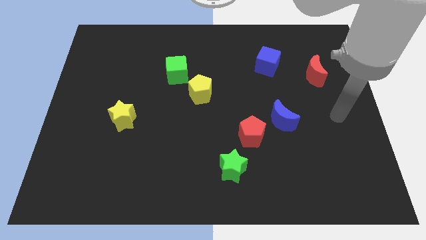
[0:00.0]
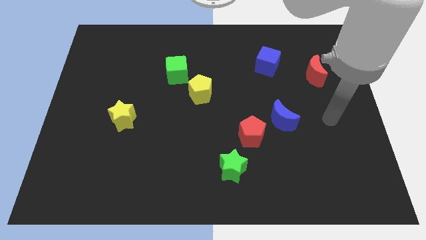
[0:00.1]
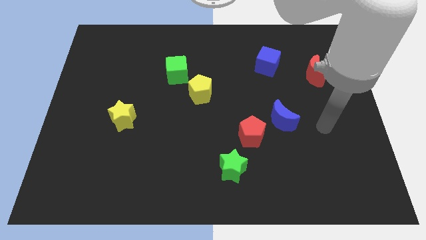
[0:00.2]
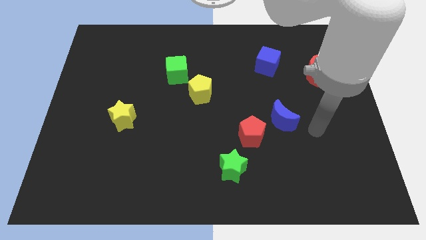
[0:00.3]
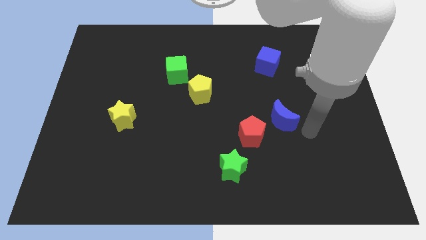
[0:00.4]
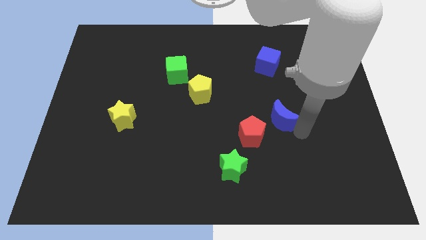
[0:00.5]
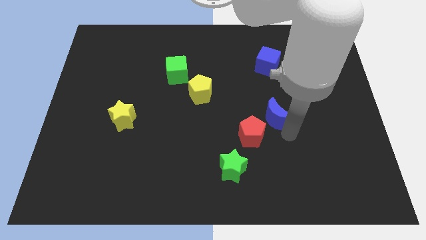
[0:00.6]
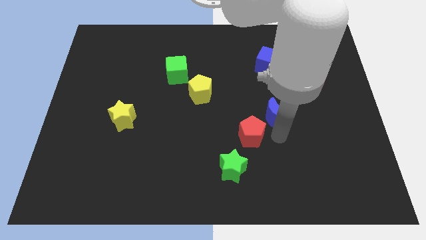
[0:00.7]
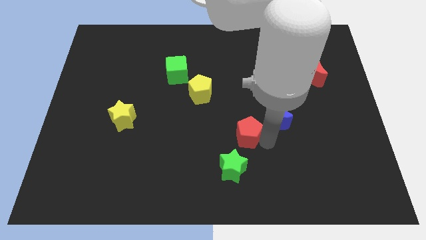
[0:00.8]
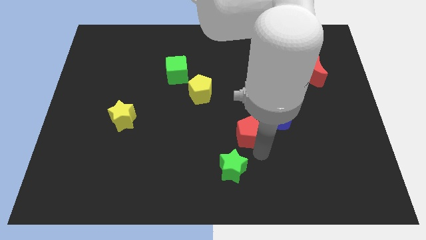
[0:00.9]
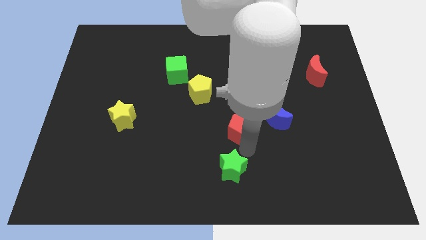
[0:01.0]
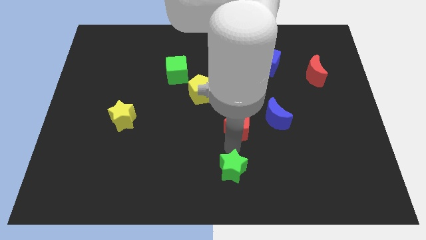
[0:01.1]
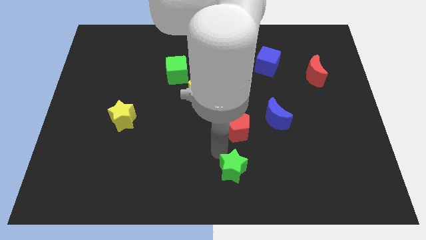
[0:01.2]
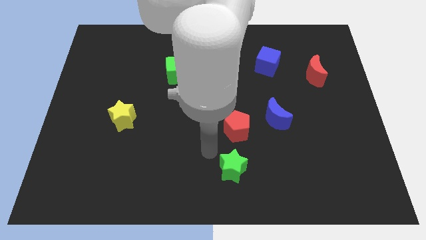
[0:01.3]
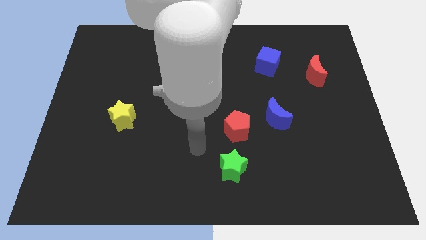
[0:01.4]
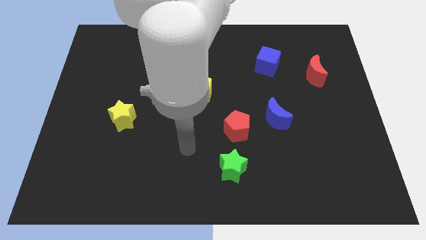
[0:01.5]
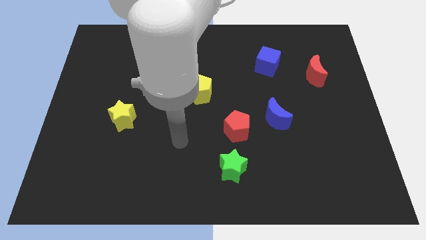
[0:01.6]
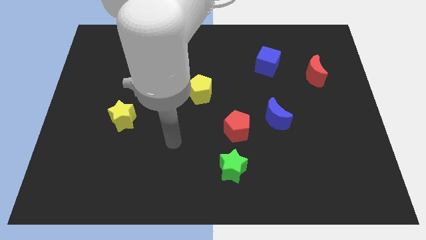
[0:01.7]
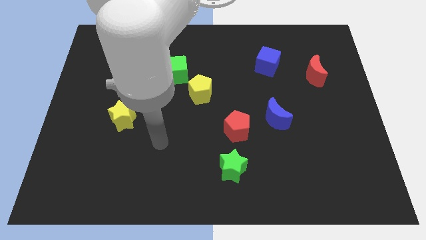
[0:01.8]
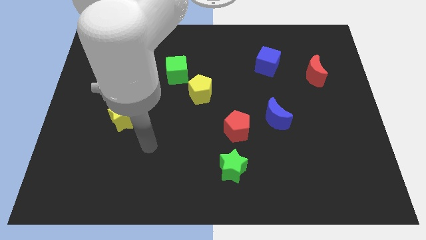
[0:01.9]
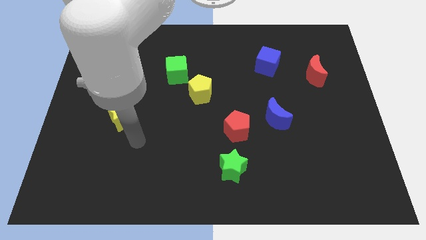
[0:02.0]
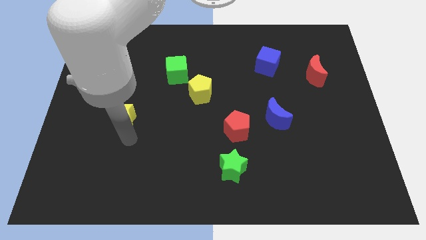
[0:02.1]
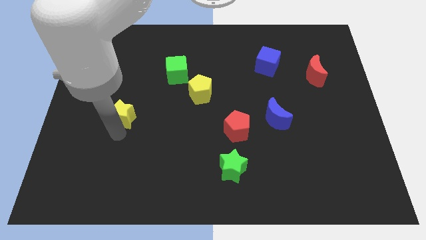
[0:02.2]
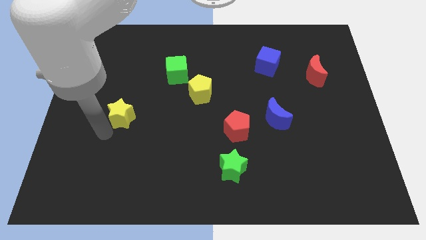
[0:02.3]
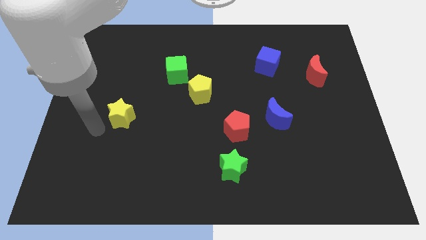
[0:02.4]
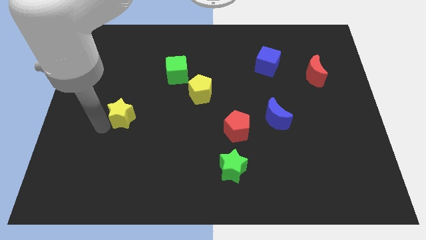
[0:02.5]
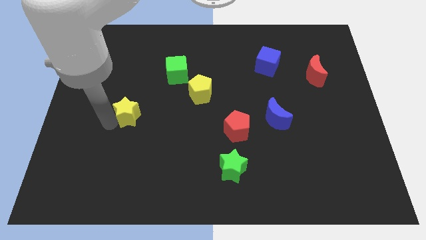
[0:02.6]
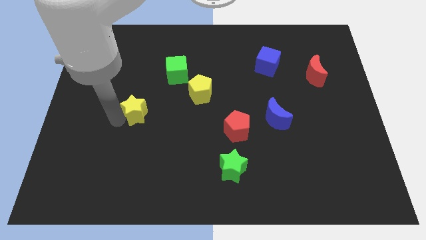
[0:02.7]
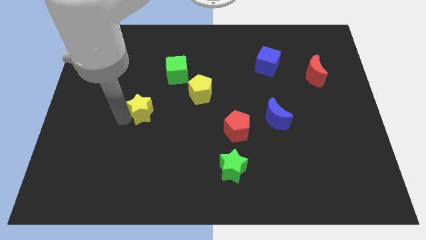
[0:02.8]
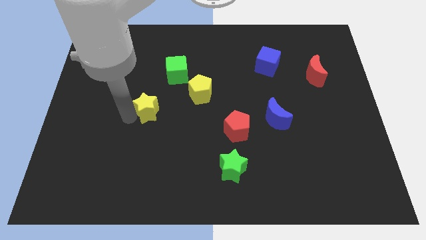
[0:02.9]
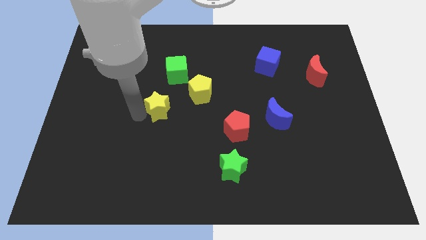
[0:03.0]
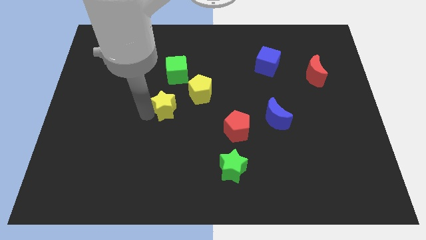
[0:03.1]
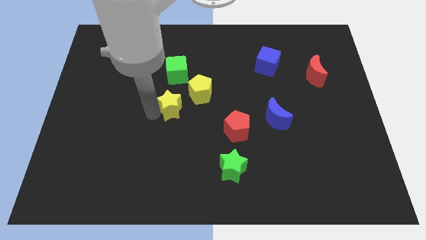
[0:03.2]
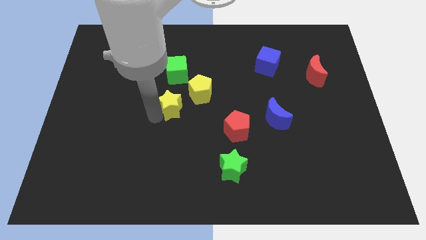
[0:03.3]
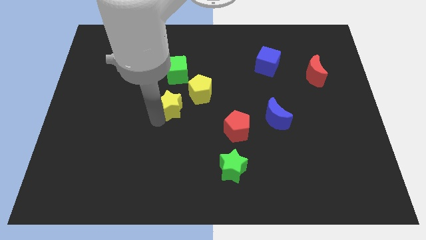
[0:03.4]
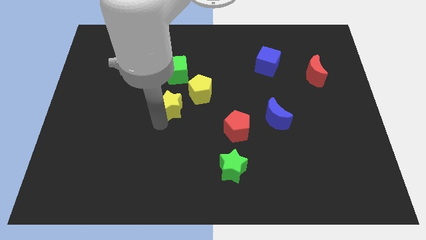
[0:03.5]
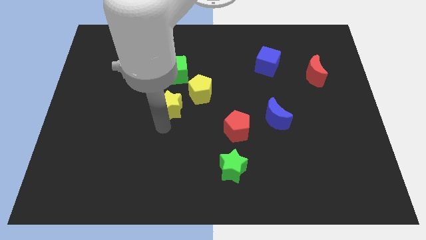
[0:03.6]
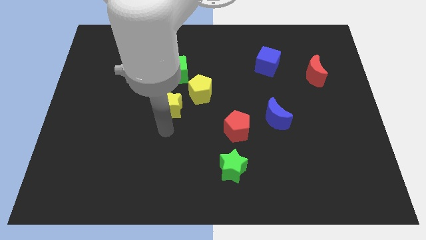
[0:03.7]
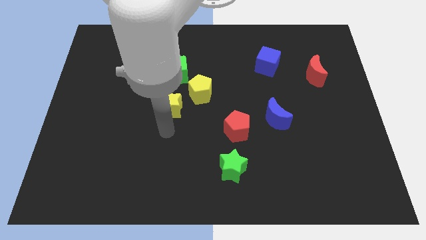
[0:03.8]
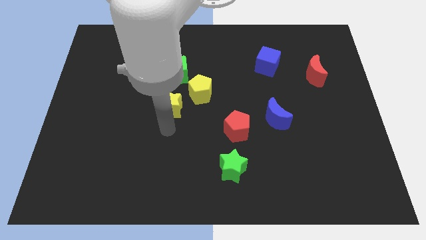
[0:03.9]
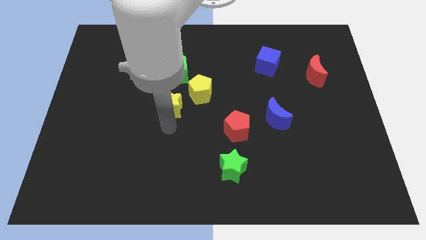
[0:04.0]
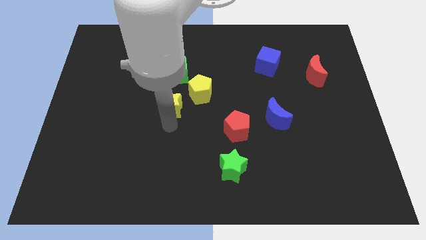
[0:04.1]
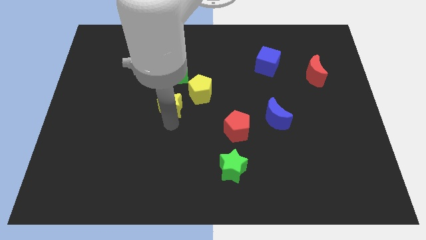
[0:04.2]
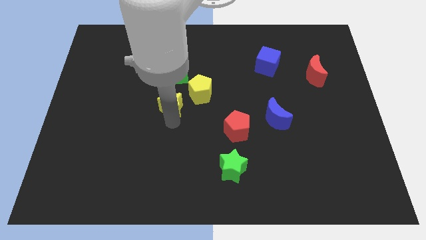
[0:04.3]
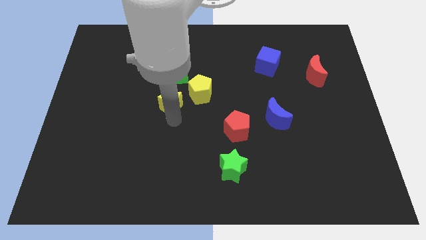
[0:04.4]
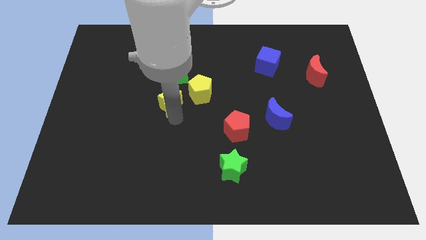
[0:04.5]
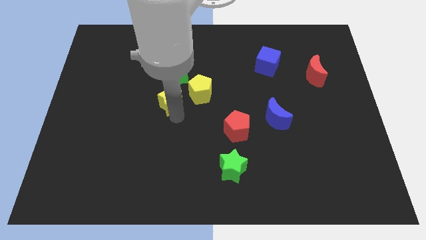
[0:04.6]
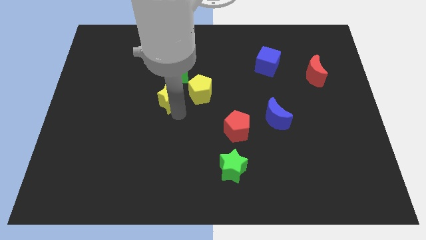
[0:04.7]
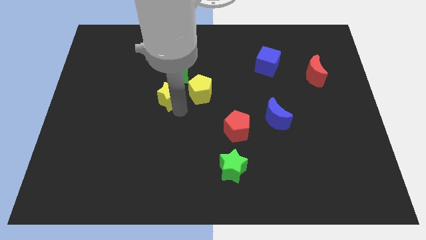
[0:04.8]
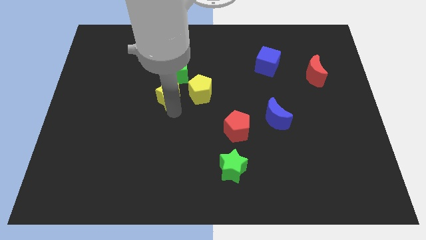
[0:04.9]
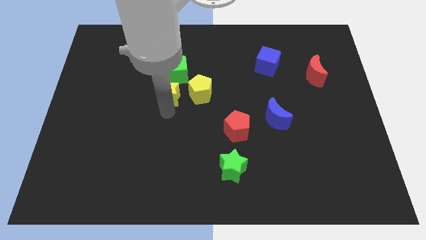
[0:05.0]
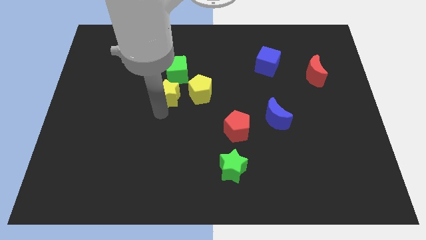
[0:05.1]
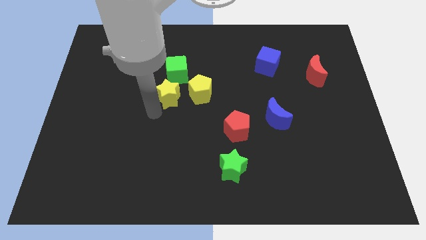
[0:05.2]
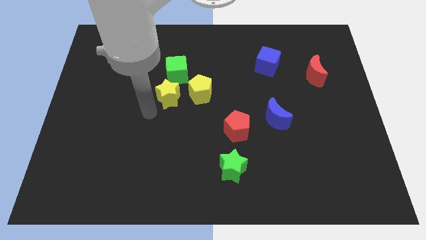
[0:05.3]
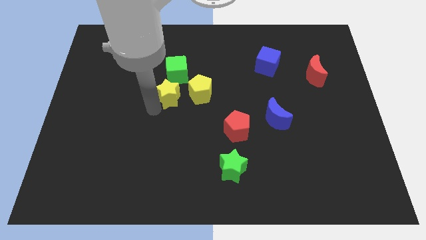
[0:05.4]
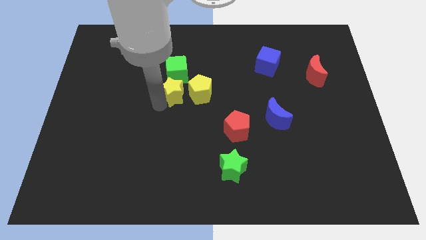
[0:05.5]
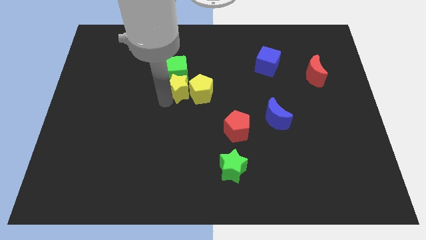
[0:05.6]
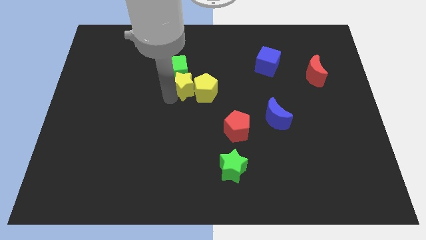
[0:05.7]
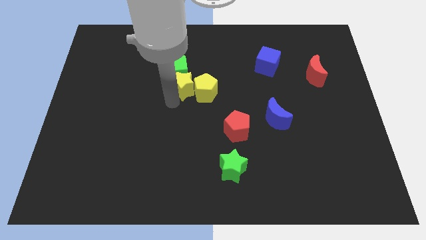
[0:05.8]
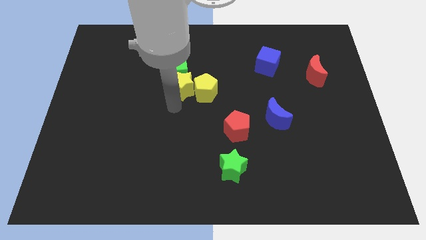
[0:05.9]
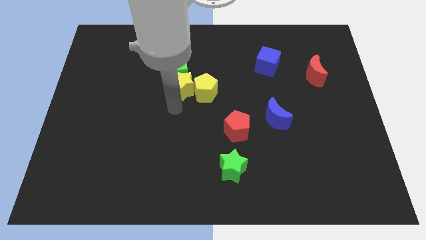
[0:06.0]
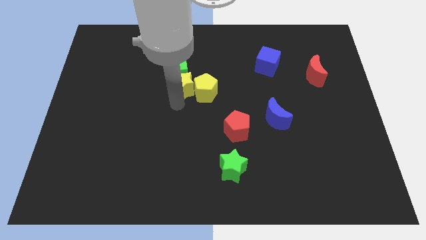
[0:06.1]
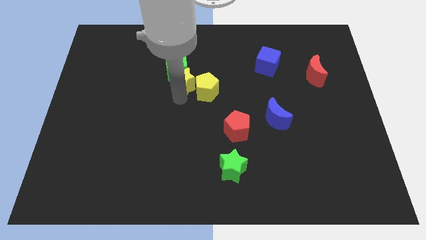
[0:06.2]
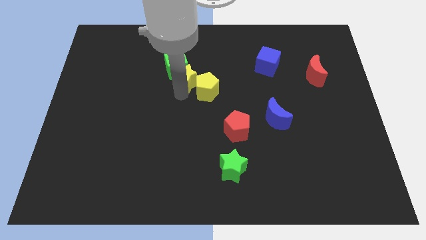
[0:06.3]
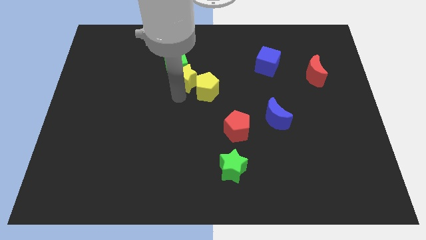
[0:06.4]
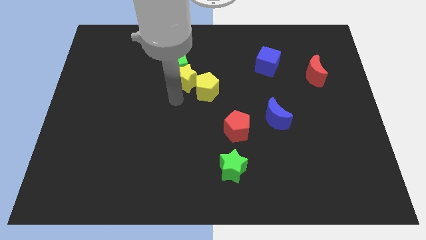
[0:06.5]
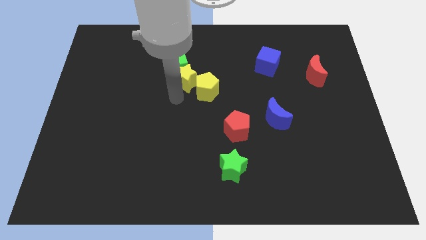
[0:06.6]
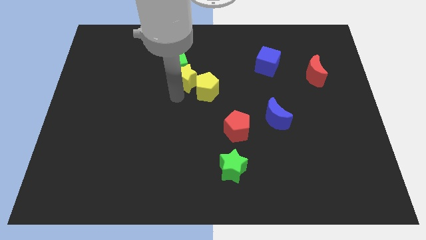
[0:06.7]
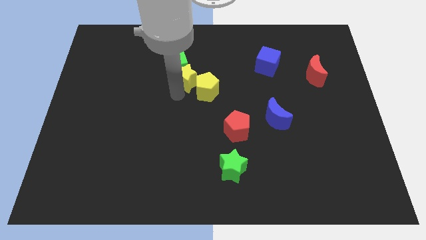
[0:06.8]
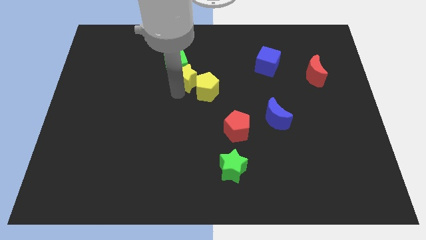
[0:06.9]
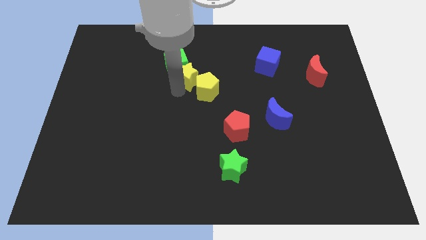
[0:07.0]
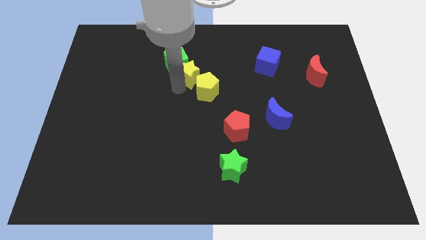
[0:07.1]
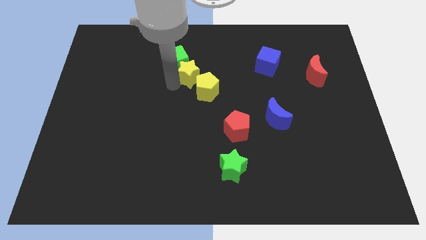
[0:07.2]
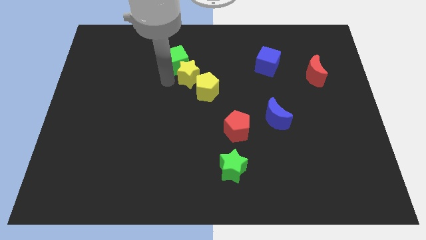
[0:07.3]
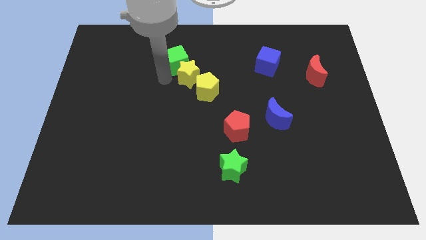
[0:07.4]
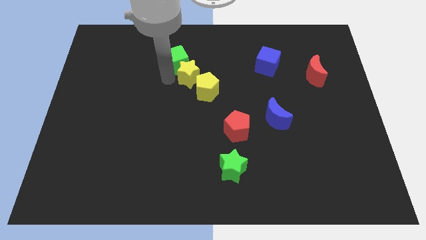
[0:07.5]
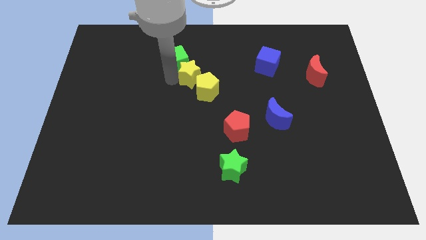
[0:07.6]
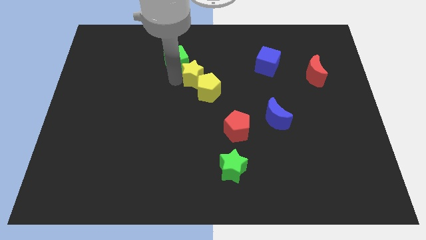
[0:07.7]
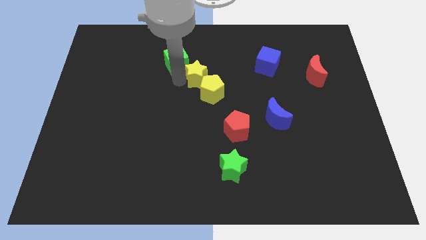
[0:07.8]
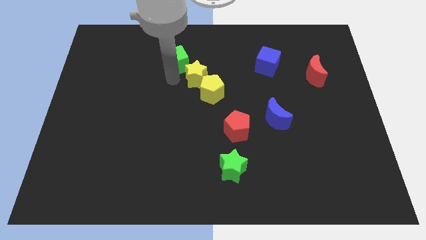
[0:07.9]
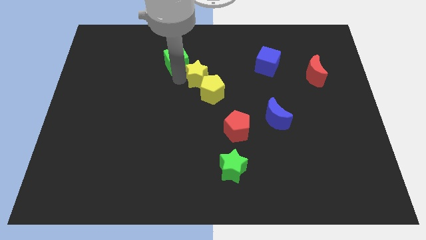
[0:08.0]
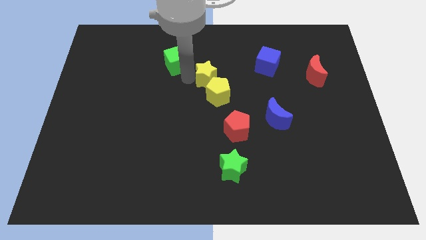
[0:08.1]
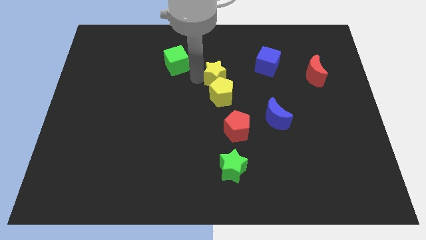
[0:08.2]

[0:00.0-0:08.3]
move the yellow star to the top right of the yellow pentagon
